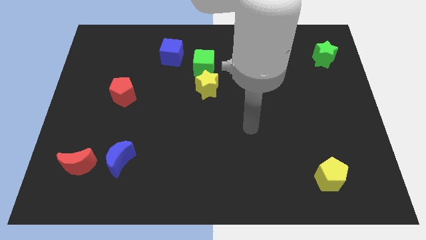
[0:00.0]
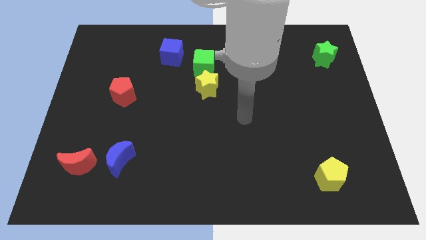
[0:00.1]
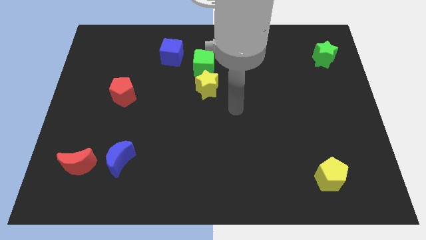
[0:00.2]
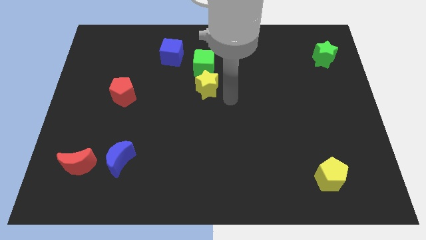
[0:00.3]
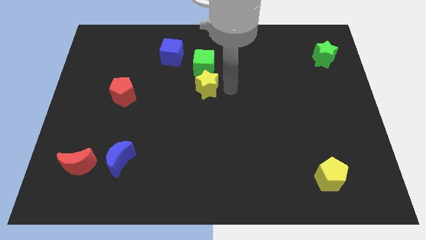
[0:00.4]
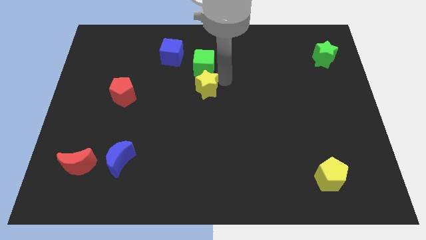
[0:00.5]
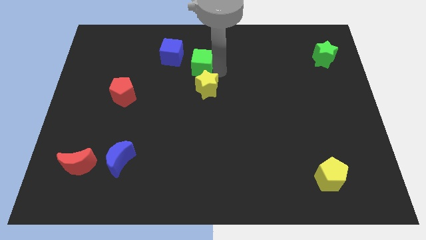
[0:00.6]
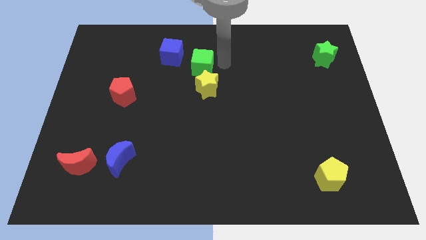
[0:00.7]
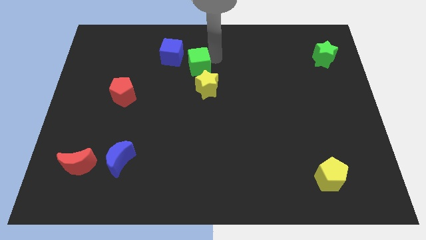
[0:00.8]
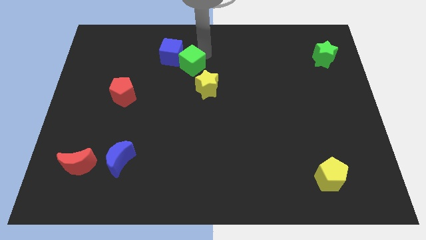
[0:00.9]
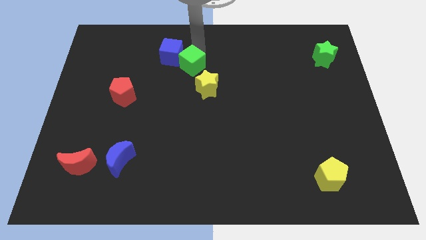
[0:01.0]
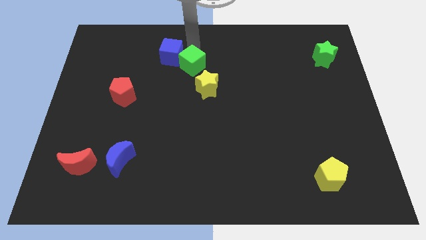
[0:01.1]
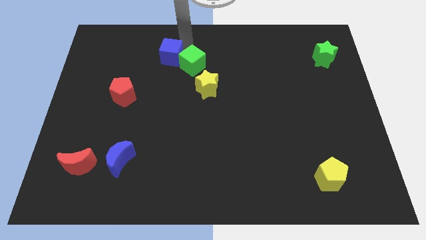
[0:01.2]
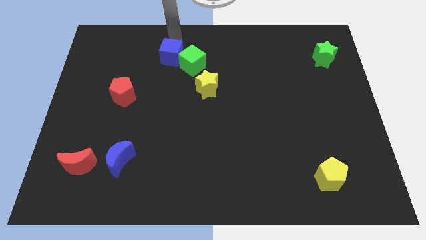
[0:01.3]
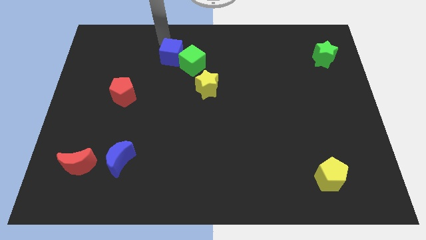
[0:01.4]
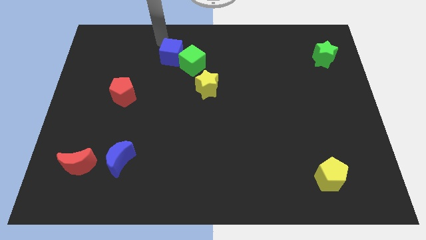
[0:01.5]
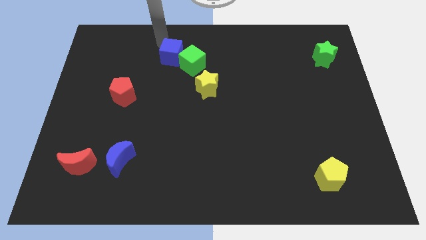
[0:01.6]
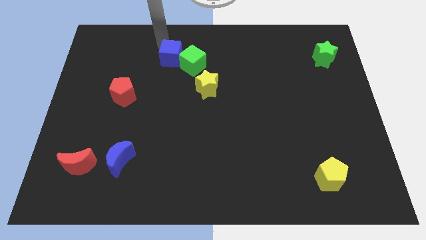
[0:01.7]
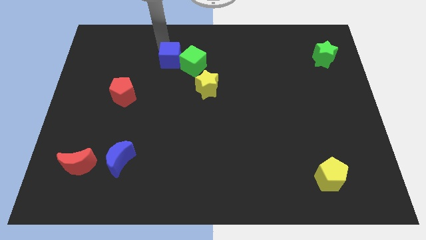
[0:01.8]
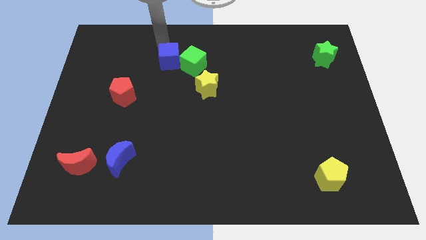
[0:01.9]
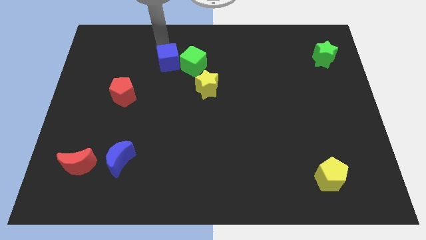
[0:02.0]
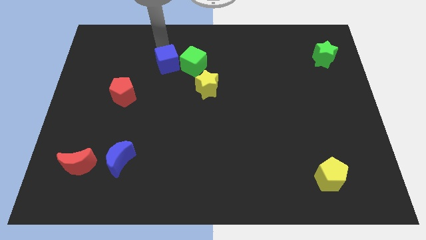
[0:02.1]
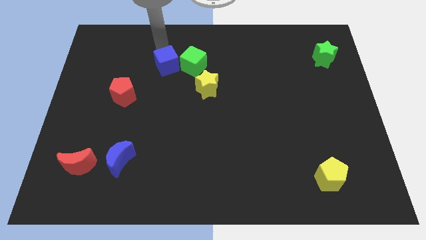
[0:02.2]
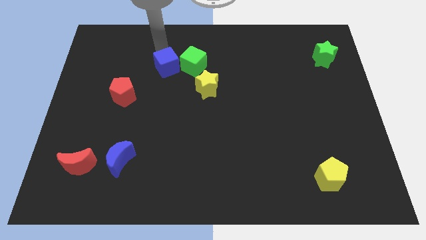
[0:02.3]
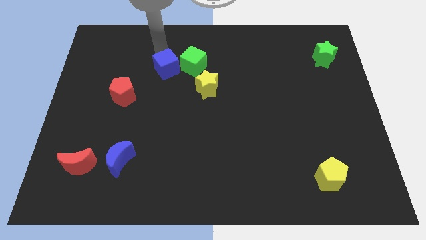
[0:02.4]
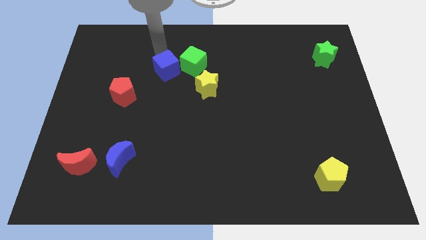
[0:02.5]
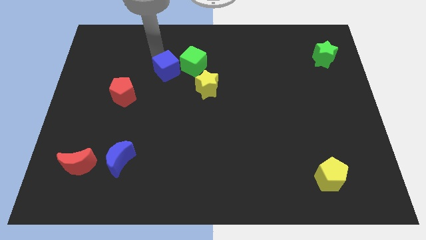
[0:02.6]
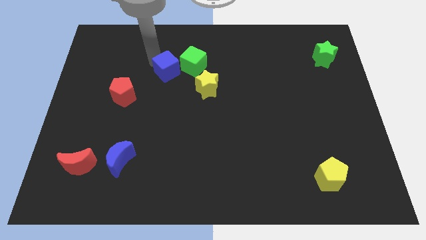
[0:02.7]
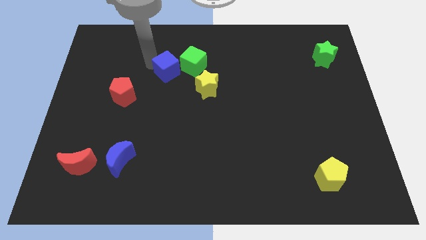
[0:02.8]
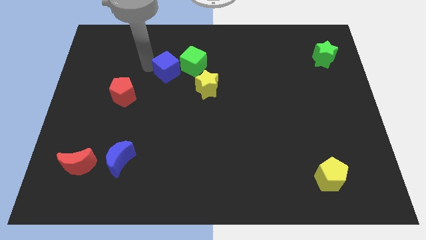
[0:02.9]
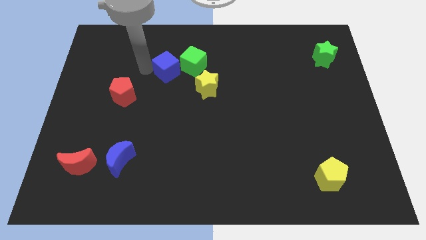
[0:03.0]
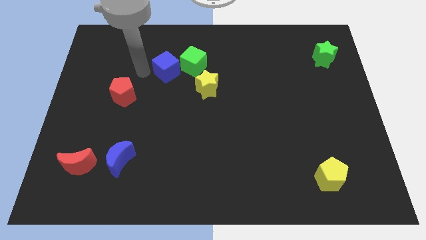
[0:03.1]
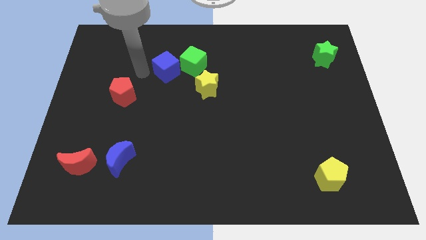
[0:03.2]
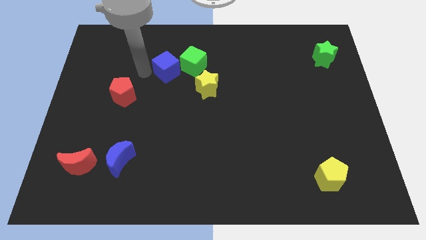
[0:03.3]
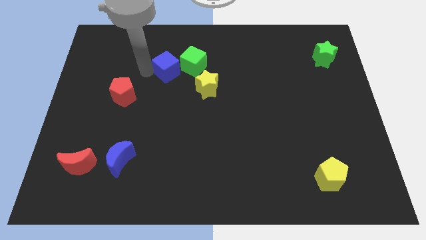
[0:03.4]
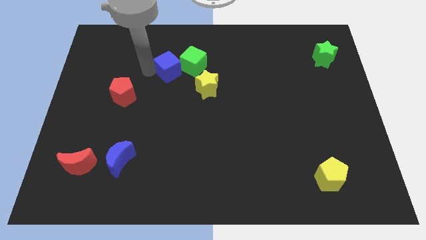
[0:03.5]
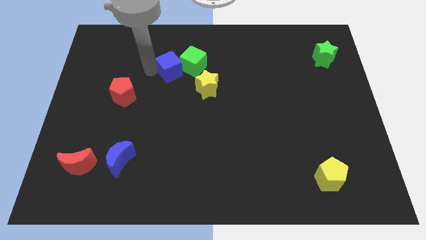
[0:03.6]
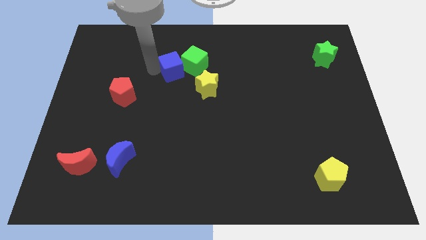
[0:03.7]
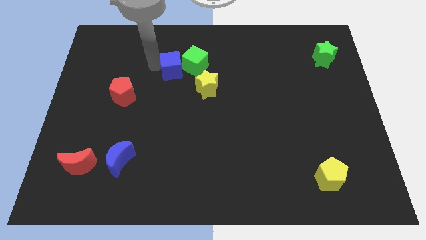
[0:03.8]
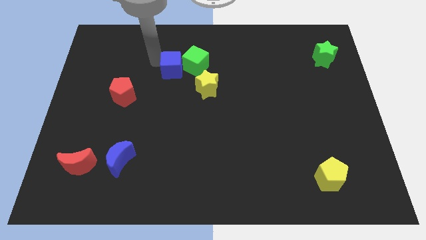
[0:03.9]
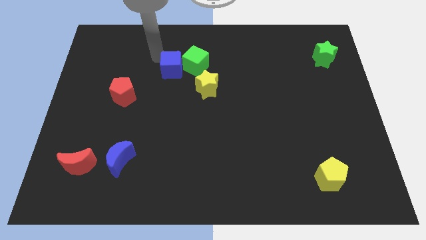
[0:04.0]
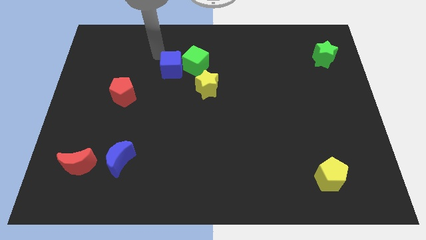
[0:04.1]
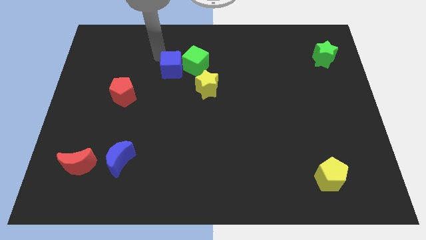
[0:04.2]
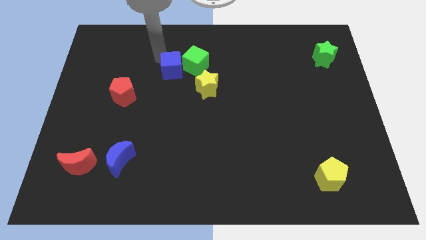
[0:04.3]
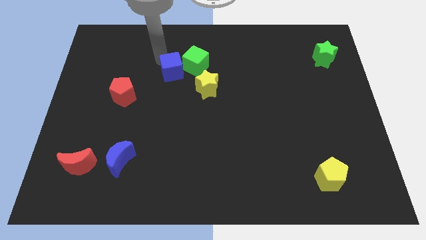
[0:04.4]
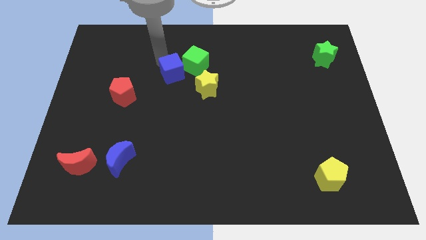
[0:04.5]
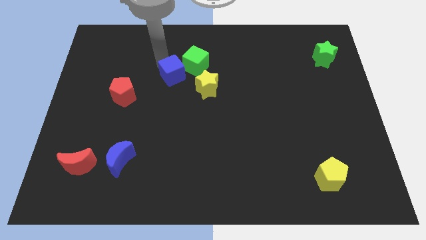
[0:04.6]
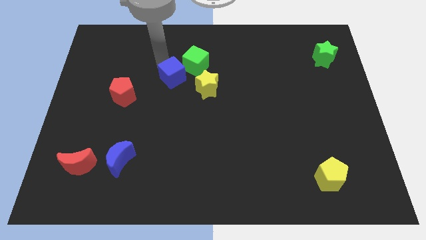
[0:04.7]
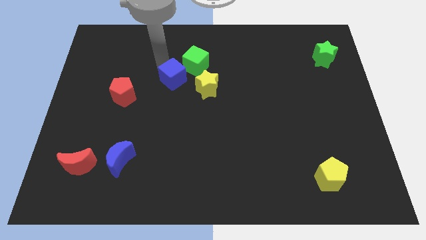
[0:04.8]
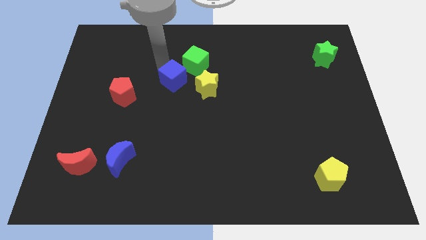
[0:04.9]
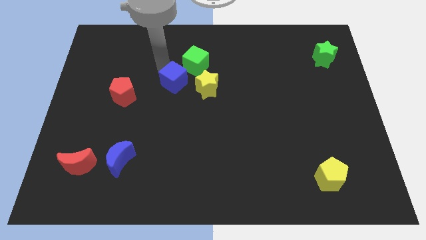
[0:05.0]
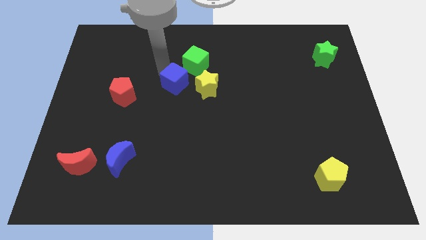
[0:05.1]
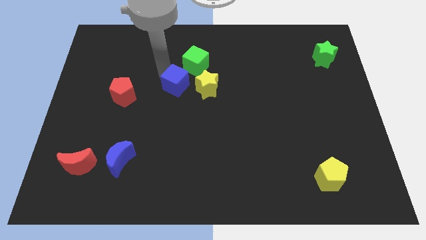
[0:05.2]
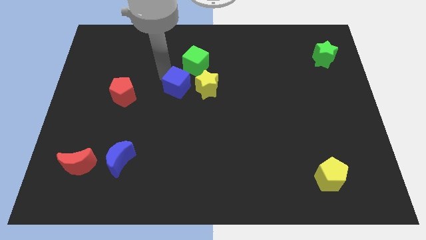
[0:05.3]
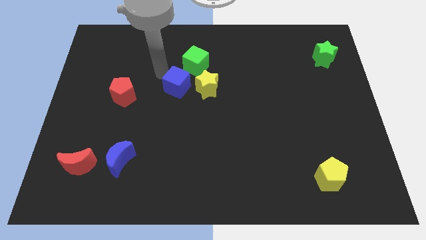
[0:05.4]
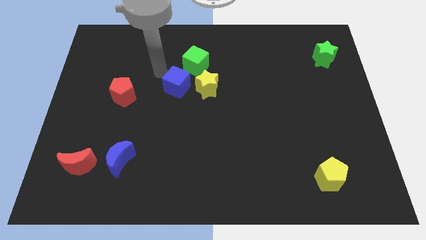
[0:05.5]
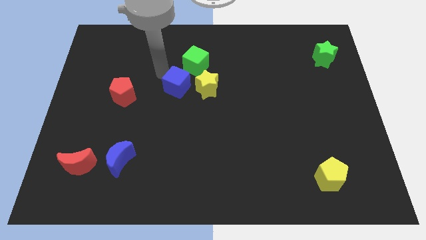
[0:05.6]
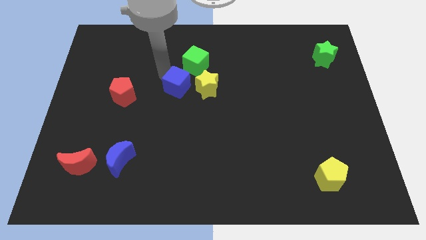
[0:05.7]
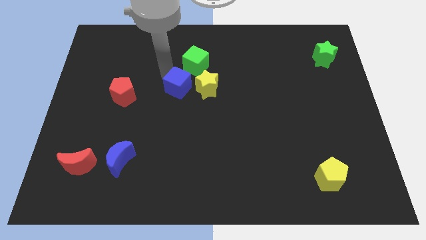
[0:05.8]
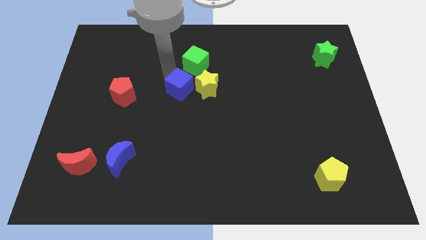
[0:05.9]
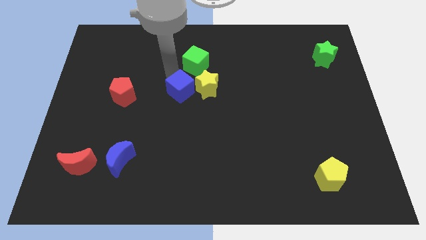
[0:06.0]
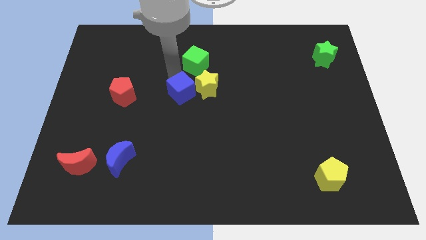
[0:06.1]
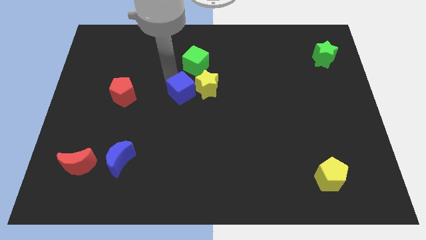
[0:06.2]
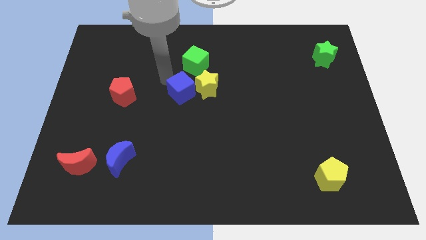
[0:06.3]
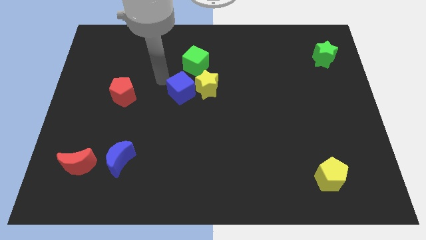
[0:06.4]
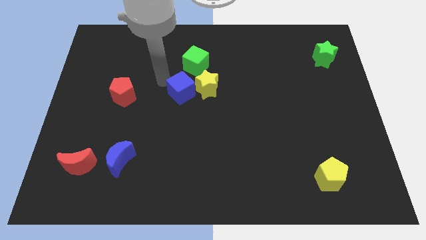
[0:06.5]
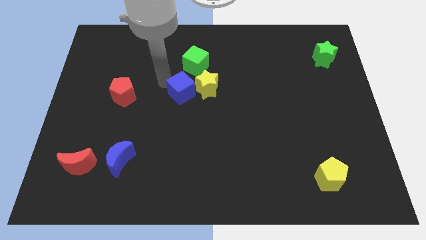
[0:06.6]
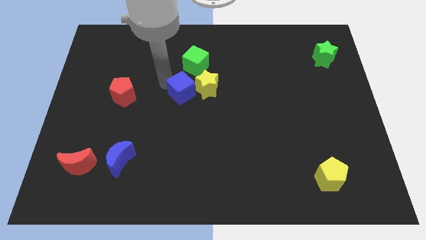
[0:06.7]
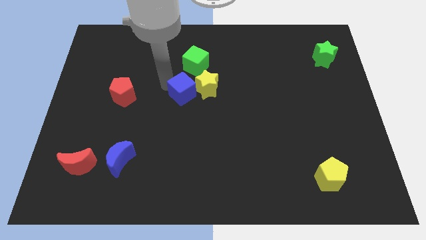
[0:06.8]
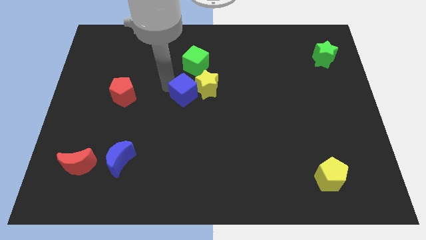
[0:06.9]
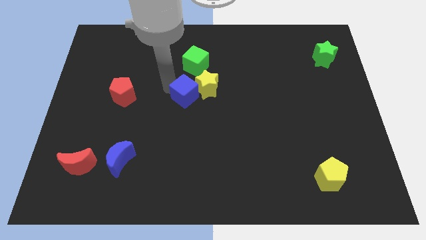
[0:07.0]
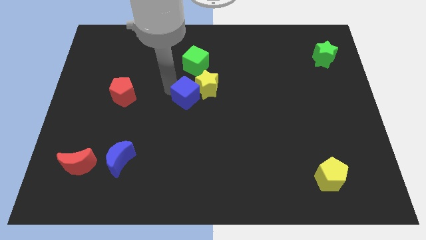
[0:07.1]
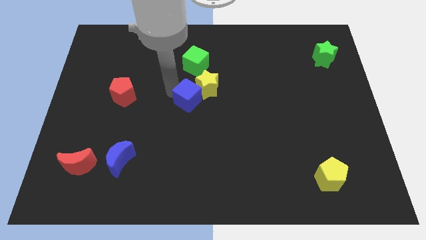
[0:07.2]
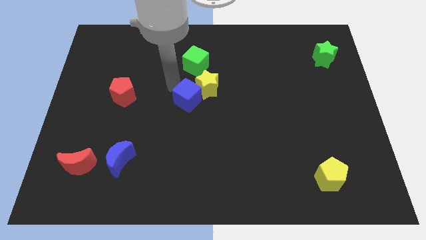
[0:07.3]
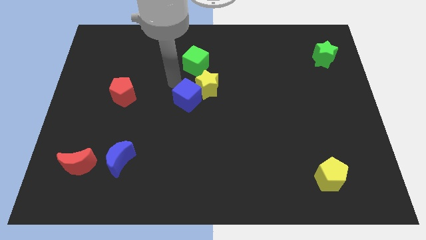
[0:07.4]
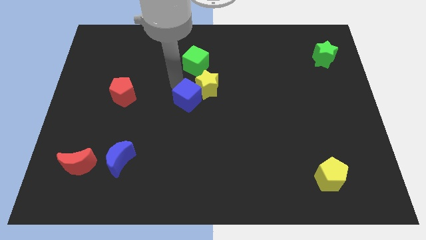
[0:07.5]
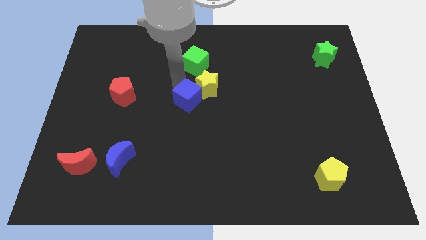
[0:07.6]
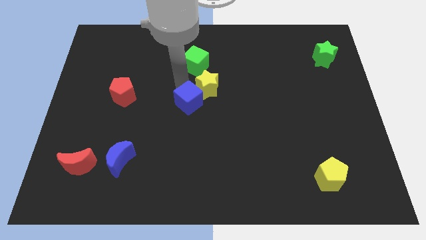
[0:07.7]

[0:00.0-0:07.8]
move the blue cube to the bottom of the yellow star
